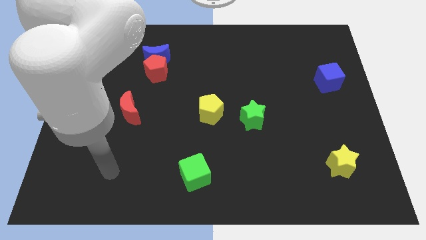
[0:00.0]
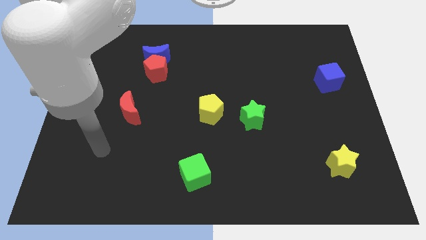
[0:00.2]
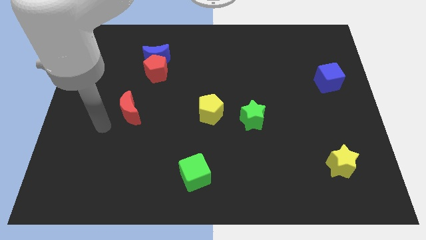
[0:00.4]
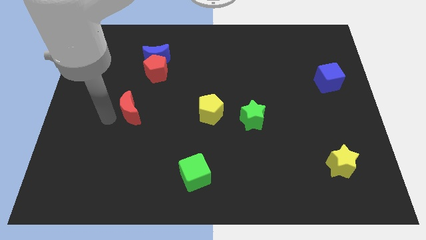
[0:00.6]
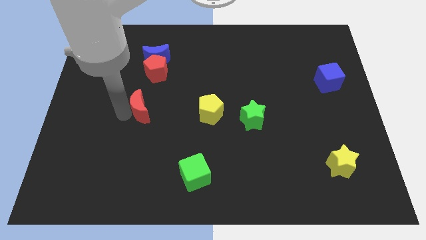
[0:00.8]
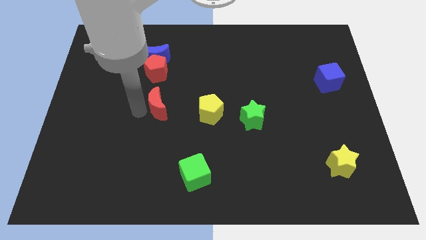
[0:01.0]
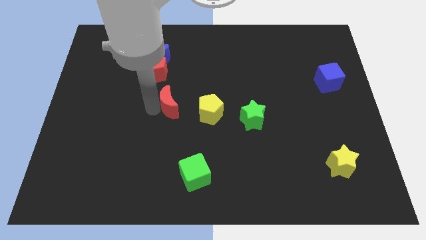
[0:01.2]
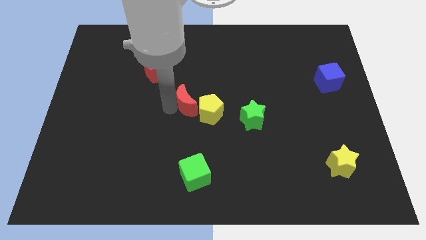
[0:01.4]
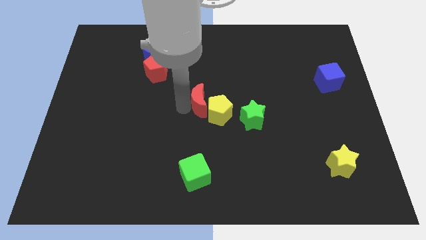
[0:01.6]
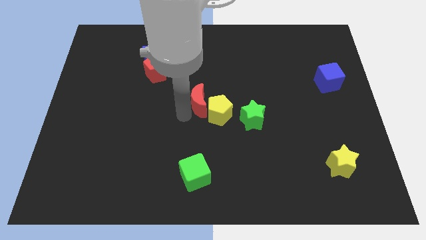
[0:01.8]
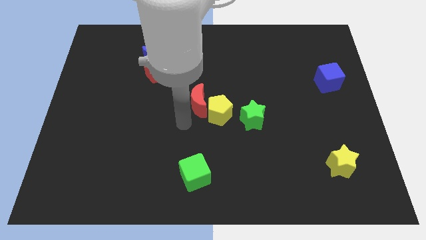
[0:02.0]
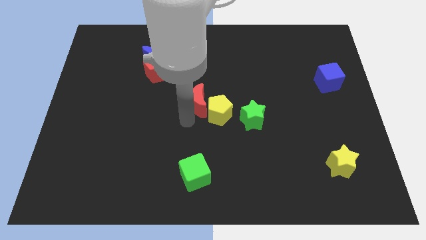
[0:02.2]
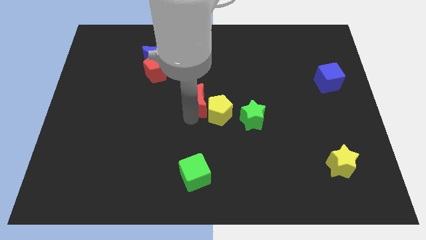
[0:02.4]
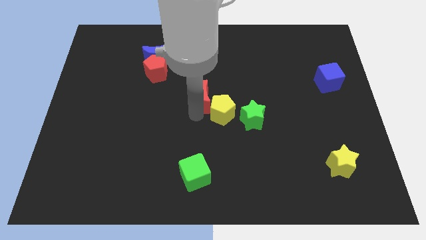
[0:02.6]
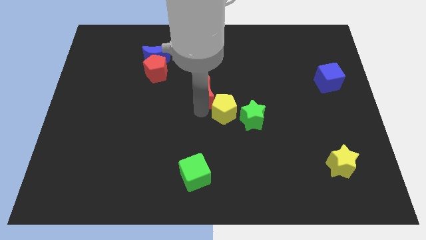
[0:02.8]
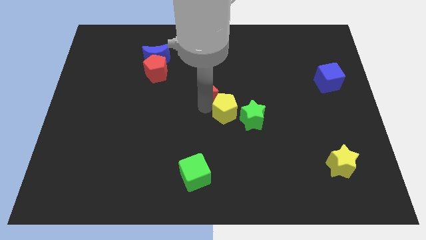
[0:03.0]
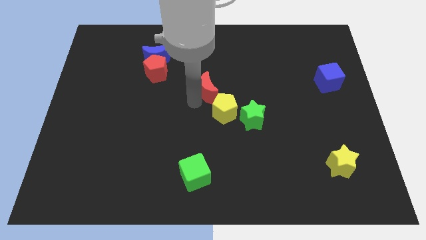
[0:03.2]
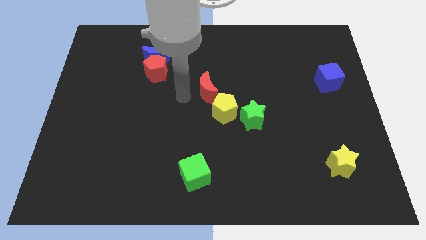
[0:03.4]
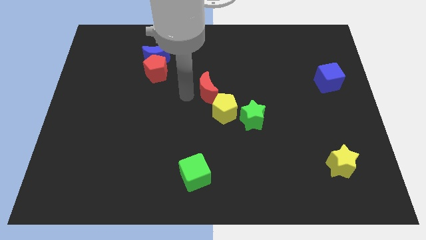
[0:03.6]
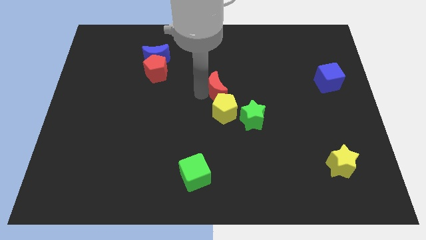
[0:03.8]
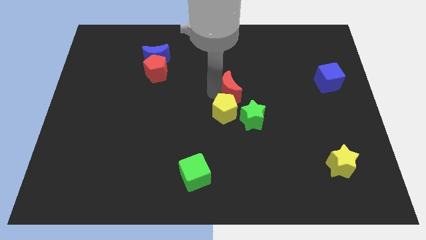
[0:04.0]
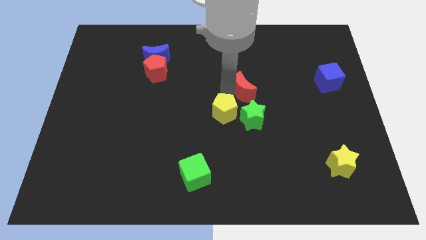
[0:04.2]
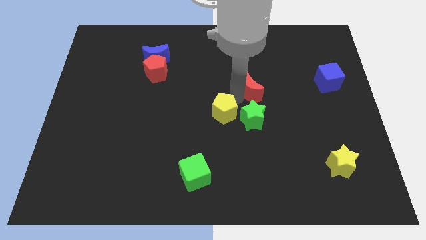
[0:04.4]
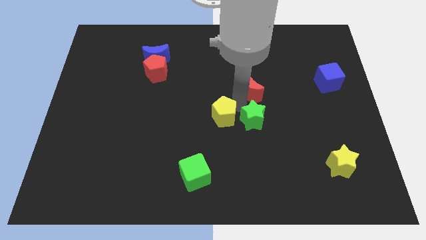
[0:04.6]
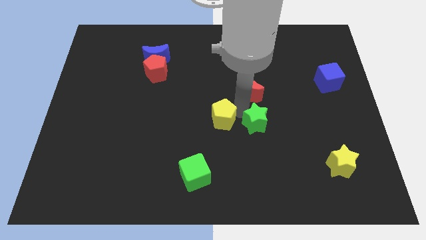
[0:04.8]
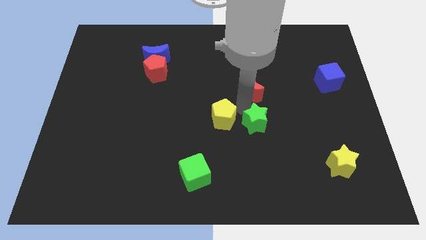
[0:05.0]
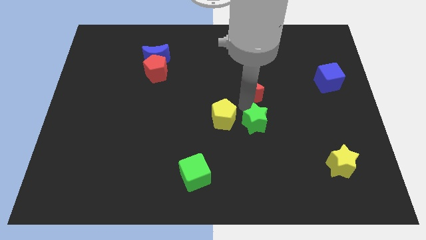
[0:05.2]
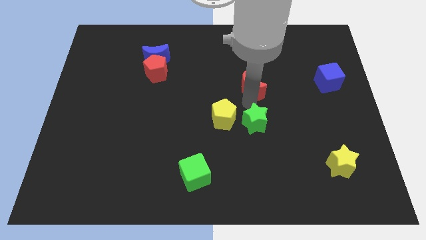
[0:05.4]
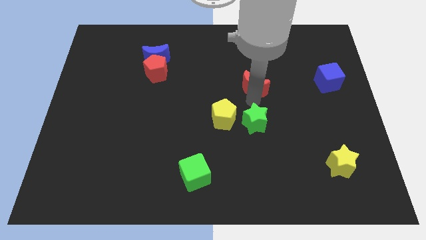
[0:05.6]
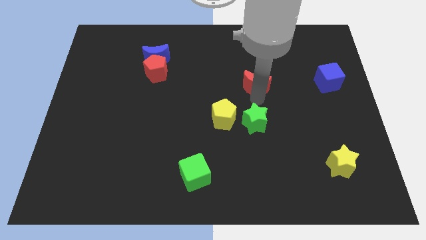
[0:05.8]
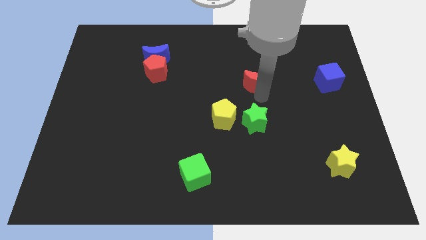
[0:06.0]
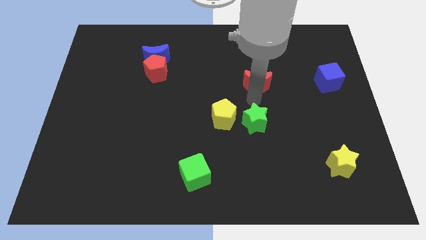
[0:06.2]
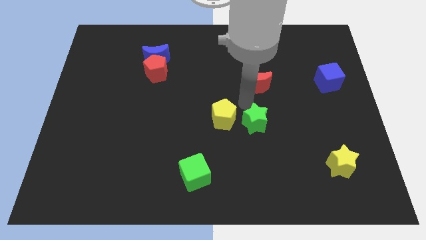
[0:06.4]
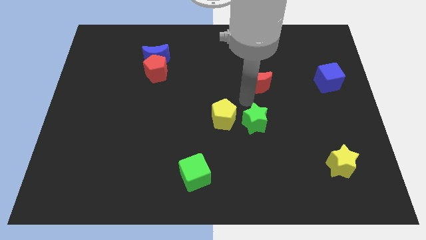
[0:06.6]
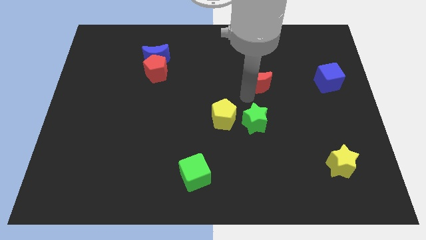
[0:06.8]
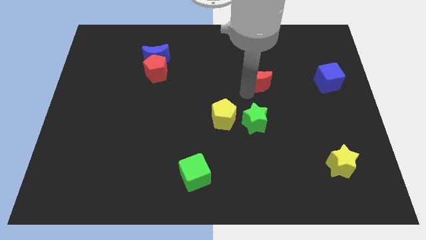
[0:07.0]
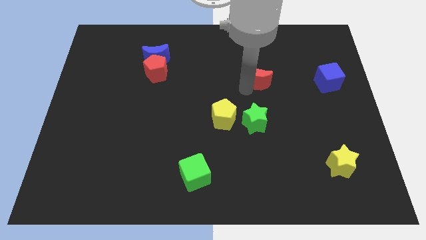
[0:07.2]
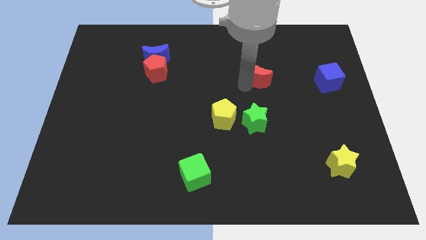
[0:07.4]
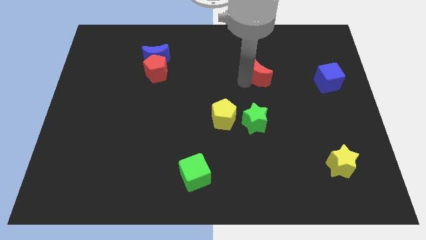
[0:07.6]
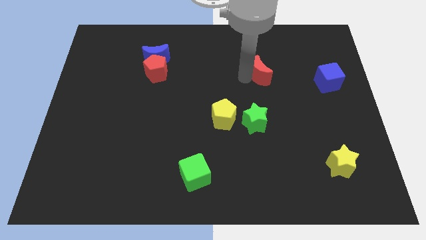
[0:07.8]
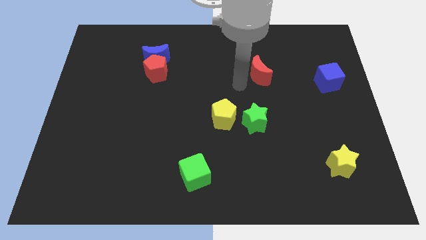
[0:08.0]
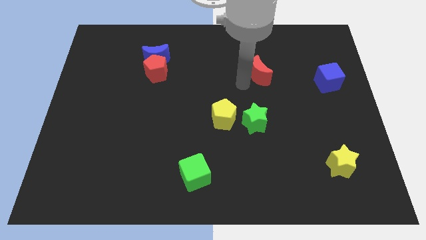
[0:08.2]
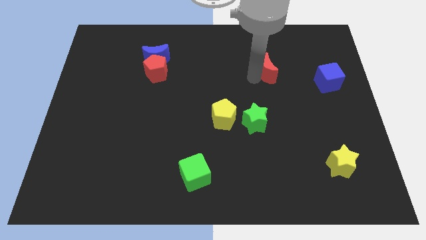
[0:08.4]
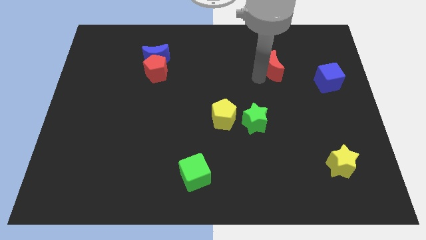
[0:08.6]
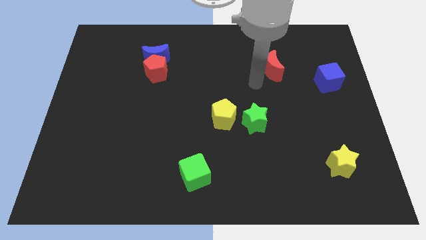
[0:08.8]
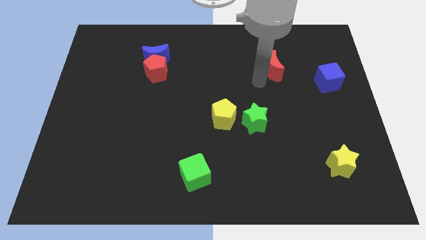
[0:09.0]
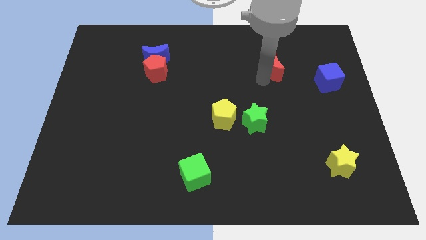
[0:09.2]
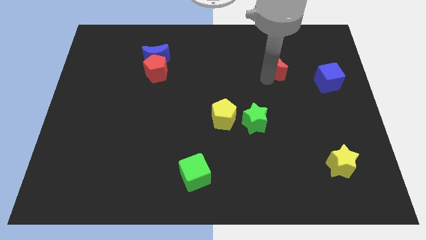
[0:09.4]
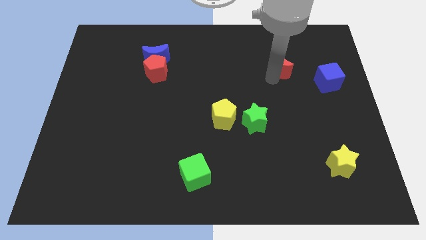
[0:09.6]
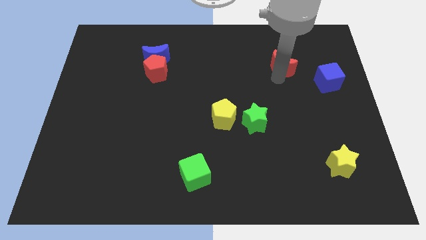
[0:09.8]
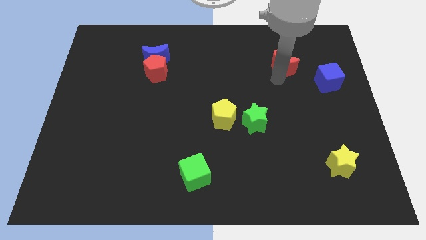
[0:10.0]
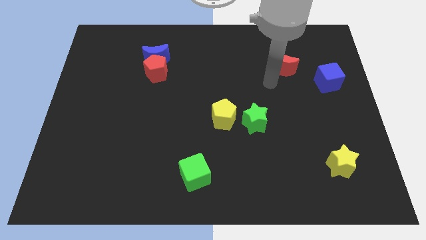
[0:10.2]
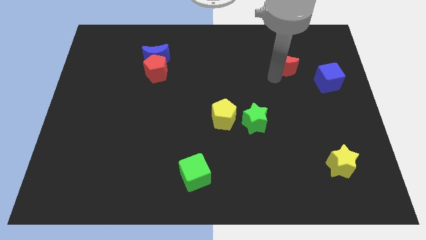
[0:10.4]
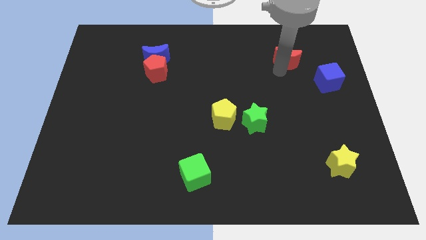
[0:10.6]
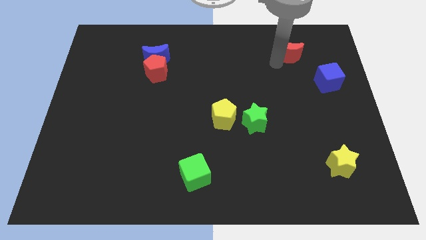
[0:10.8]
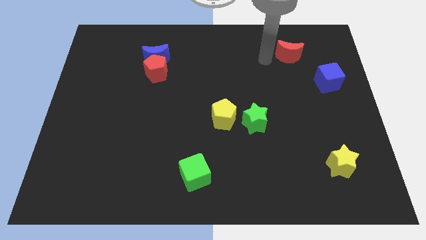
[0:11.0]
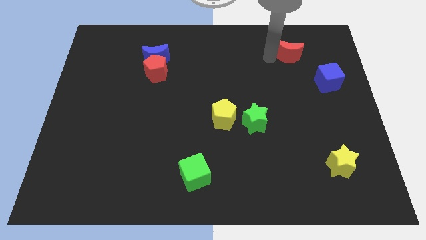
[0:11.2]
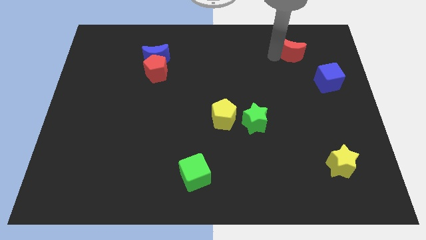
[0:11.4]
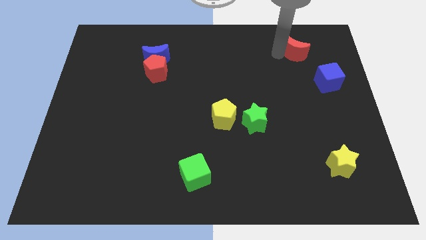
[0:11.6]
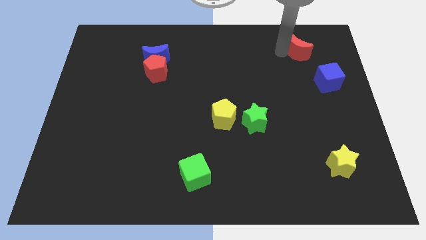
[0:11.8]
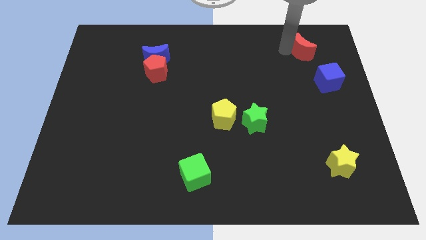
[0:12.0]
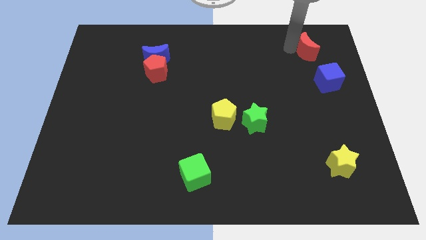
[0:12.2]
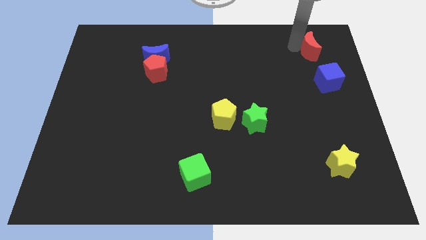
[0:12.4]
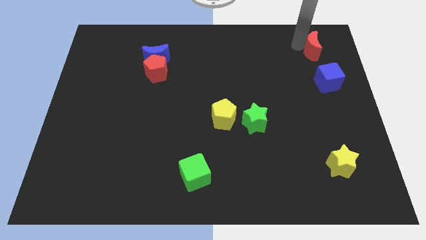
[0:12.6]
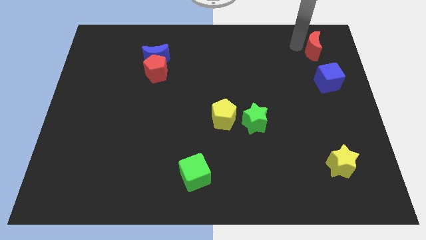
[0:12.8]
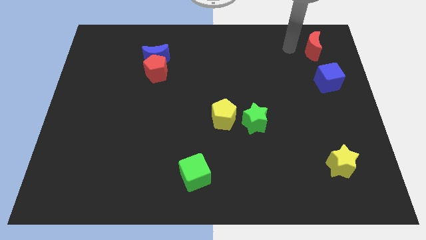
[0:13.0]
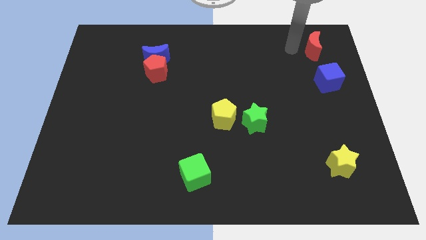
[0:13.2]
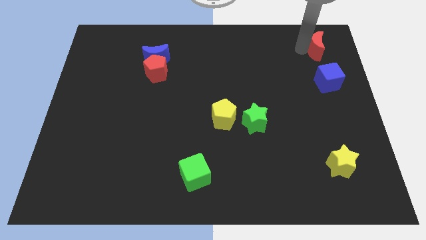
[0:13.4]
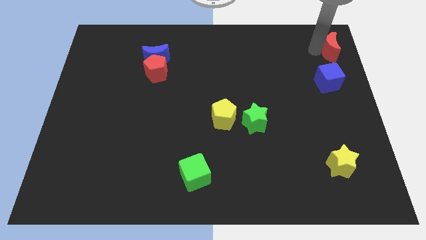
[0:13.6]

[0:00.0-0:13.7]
move the red moon to the top right corner
